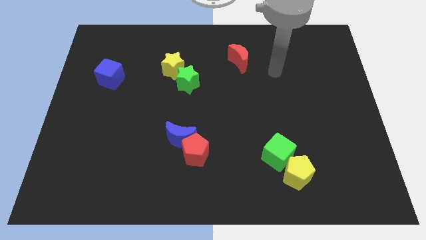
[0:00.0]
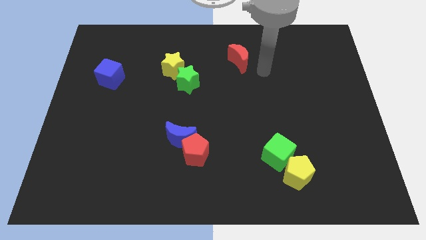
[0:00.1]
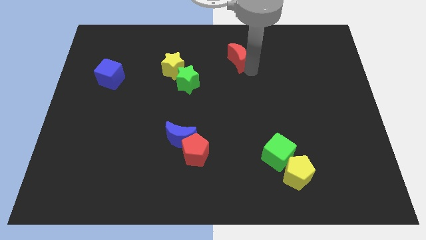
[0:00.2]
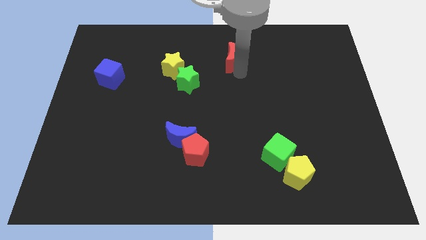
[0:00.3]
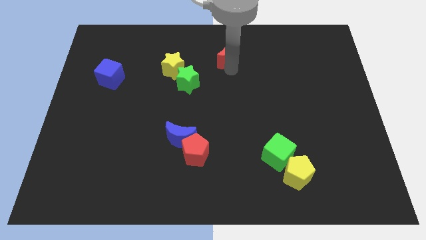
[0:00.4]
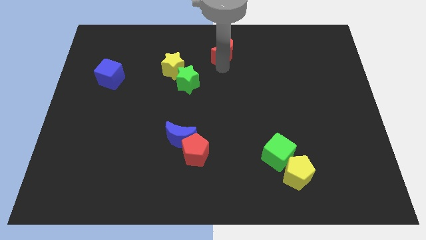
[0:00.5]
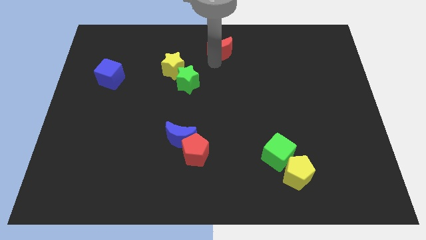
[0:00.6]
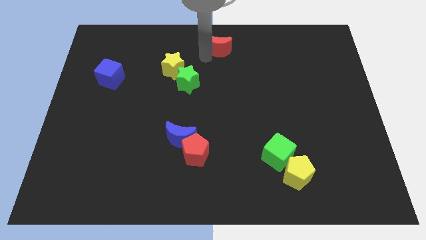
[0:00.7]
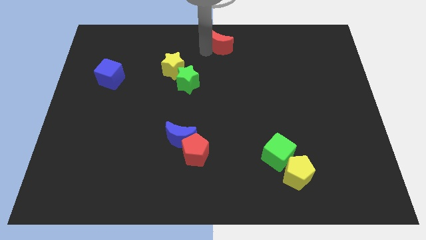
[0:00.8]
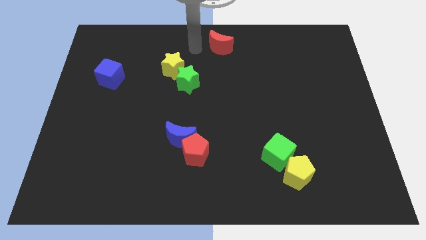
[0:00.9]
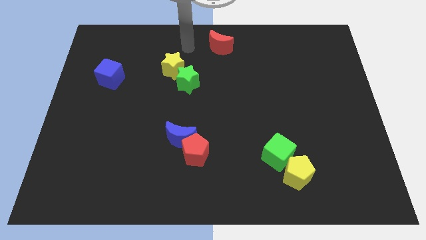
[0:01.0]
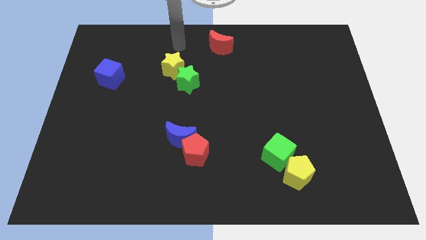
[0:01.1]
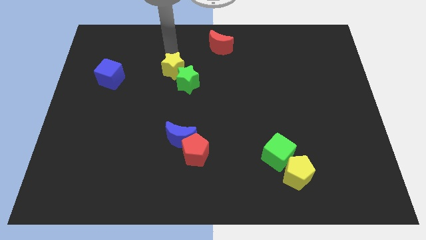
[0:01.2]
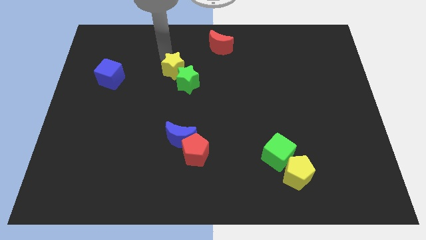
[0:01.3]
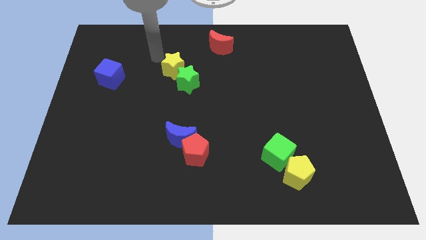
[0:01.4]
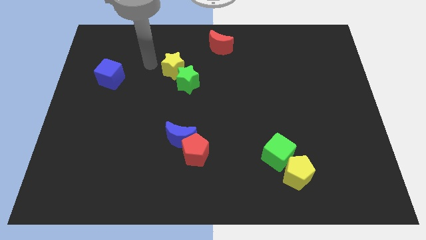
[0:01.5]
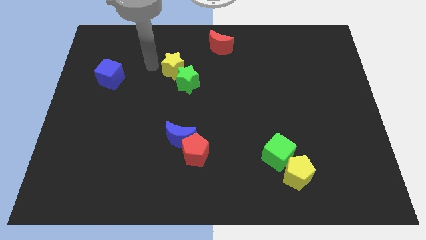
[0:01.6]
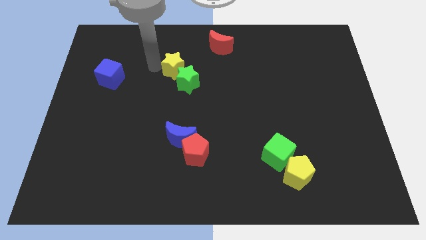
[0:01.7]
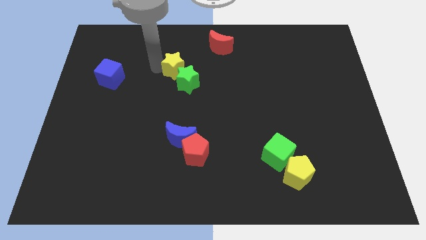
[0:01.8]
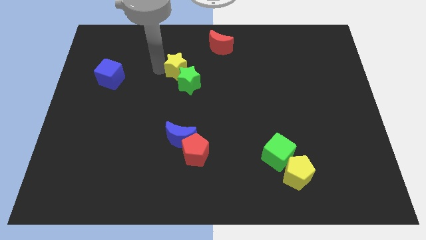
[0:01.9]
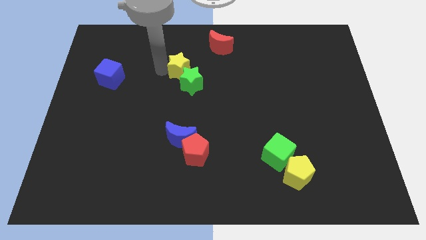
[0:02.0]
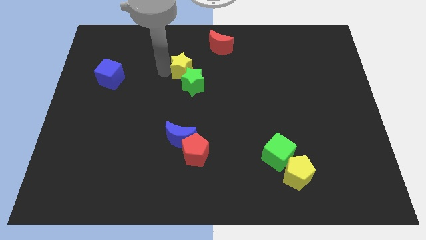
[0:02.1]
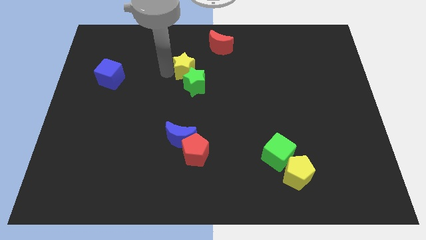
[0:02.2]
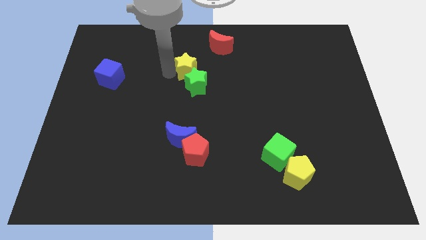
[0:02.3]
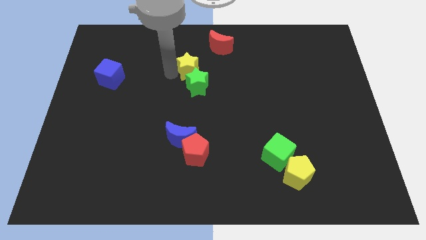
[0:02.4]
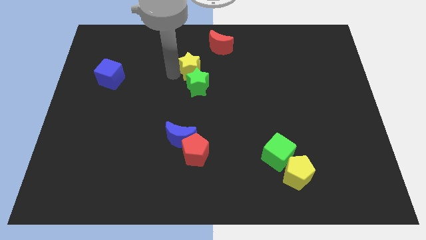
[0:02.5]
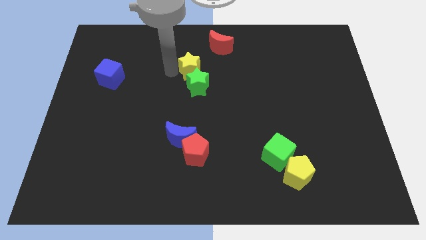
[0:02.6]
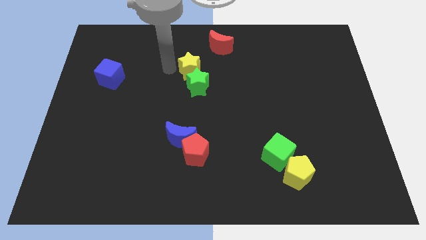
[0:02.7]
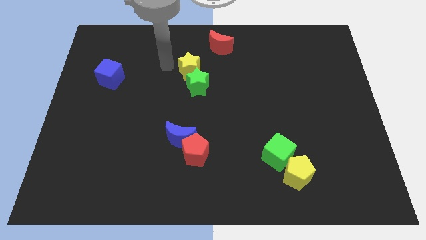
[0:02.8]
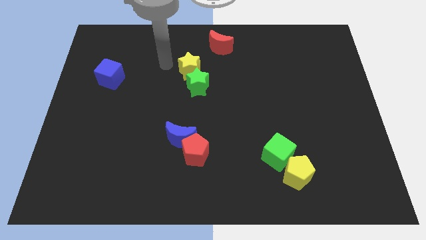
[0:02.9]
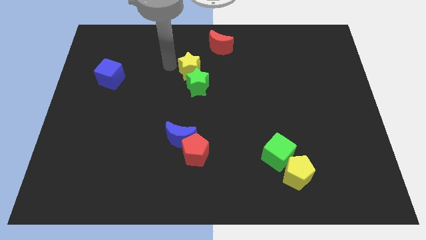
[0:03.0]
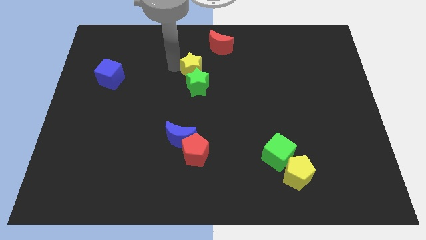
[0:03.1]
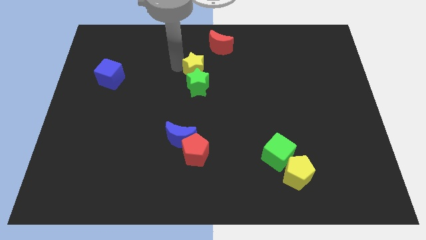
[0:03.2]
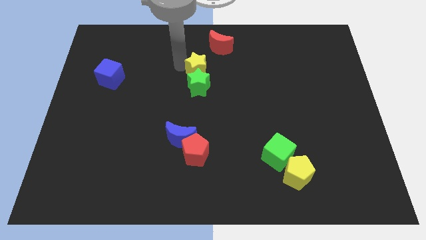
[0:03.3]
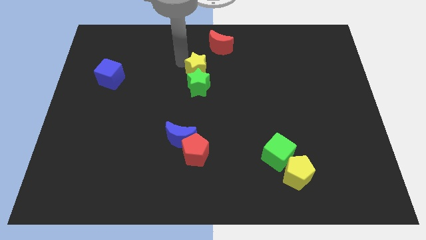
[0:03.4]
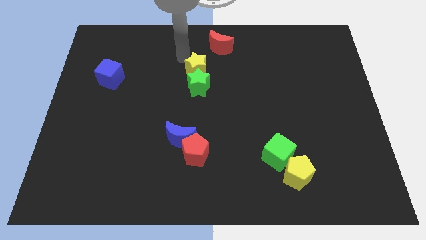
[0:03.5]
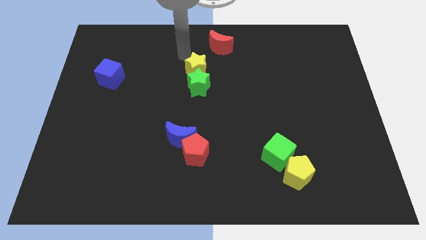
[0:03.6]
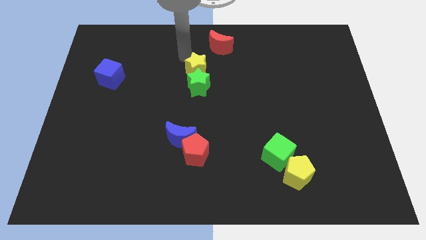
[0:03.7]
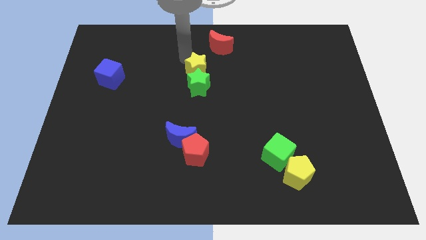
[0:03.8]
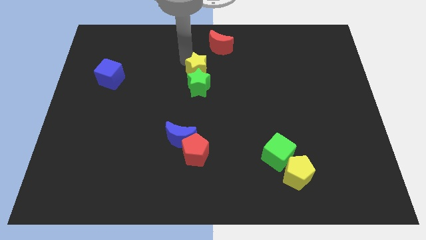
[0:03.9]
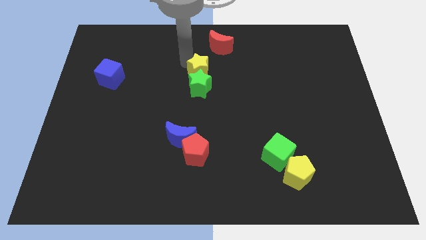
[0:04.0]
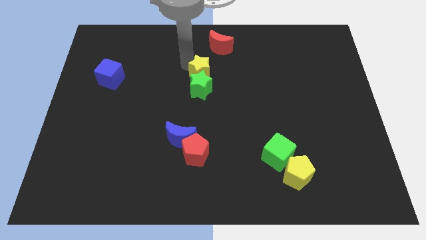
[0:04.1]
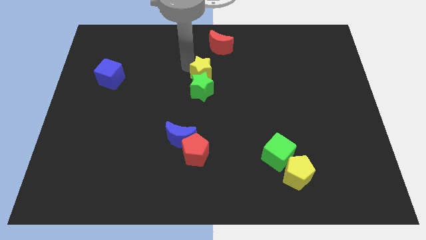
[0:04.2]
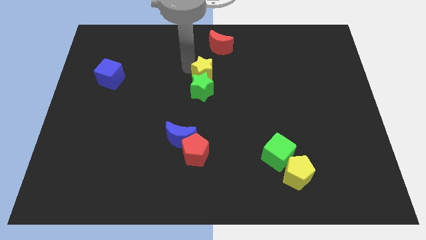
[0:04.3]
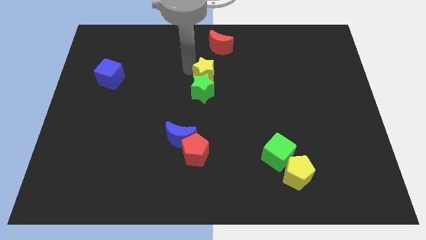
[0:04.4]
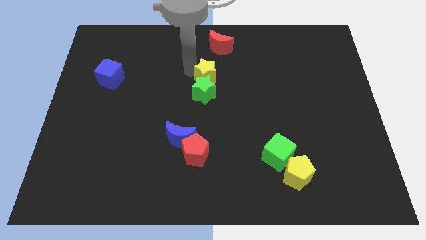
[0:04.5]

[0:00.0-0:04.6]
slide the yellow star a bit downwards and to the right diagonally

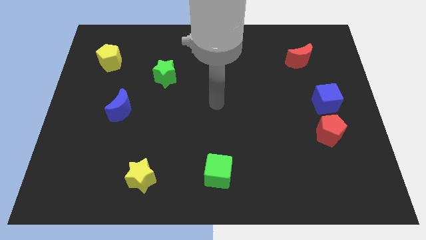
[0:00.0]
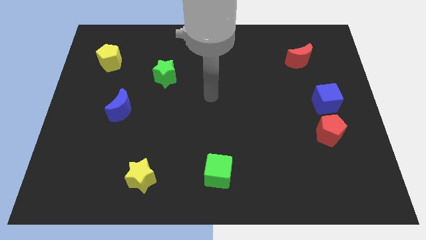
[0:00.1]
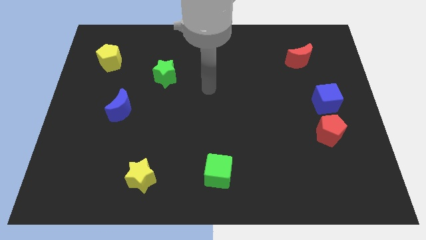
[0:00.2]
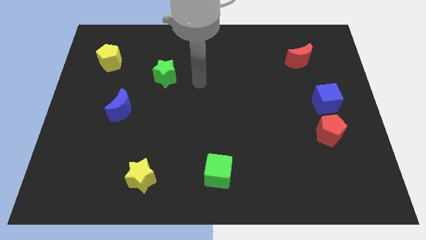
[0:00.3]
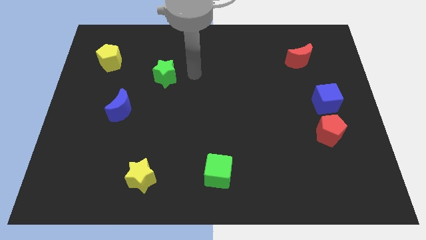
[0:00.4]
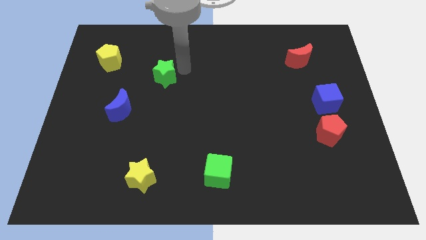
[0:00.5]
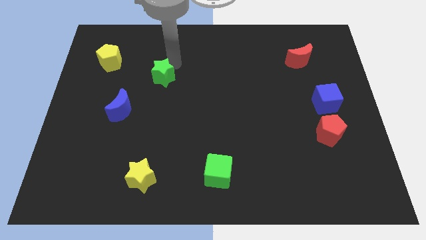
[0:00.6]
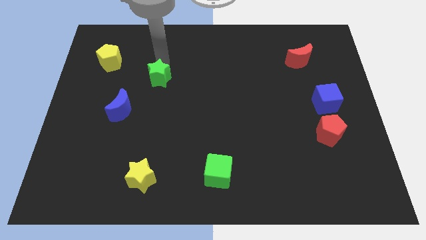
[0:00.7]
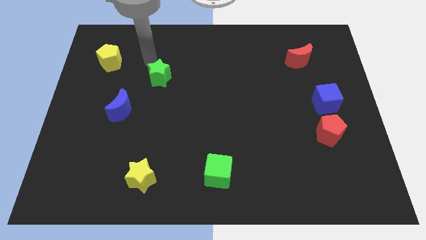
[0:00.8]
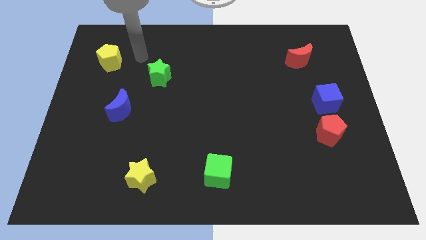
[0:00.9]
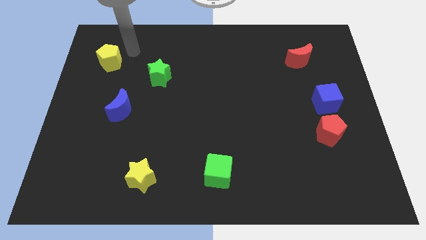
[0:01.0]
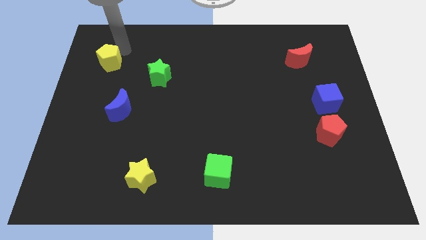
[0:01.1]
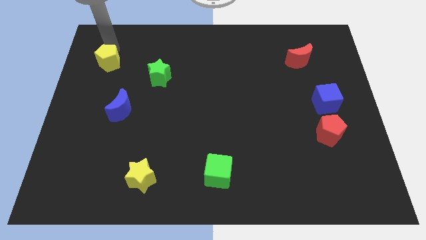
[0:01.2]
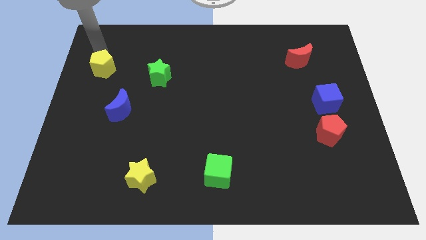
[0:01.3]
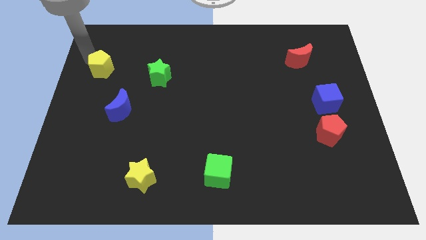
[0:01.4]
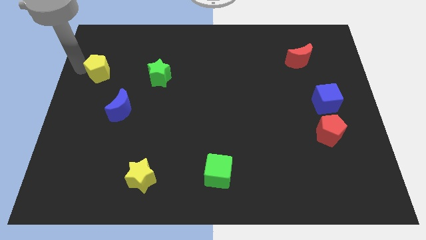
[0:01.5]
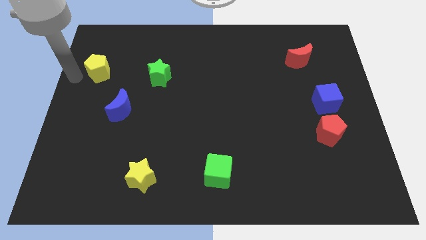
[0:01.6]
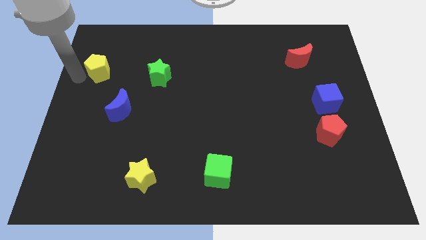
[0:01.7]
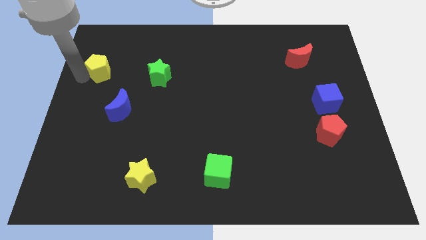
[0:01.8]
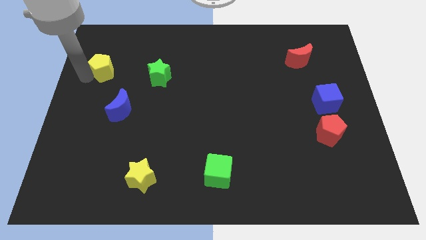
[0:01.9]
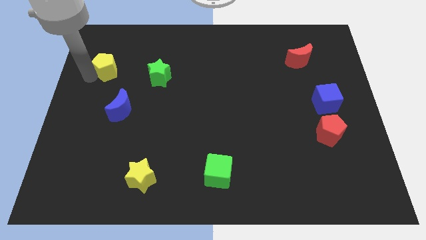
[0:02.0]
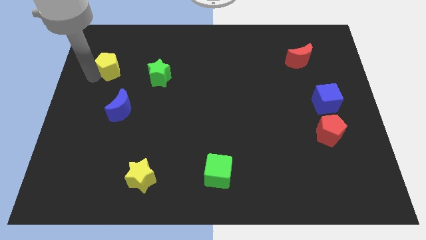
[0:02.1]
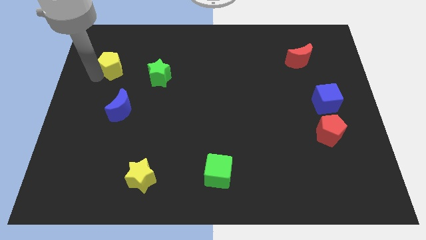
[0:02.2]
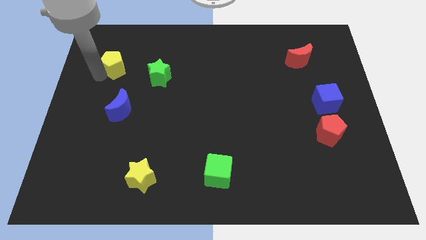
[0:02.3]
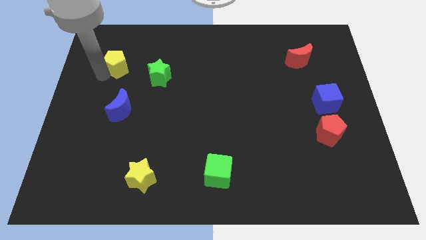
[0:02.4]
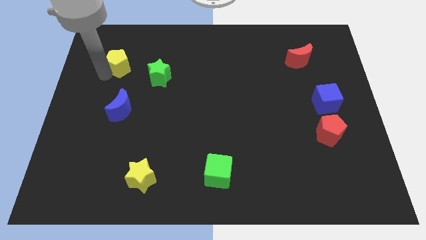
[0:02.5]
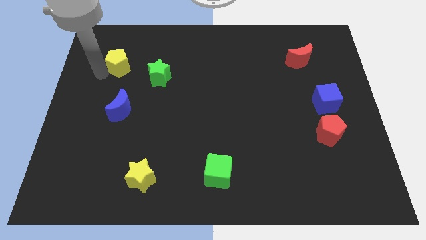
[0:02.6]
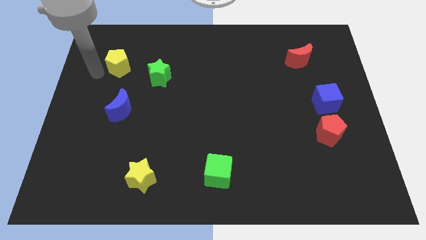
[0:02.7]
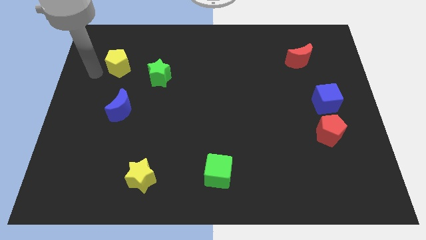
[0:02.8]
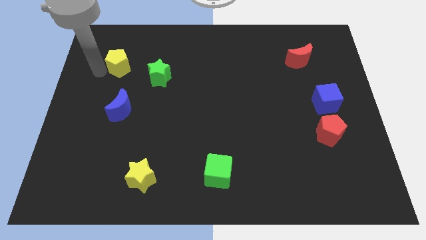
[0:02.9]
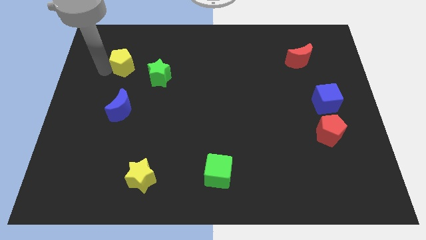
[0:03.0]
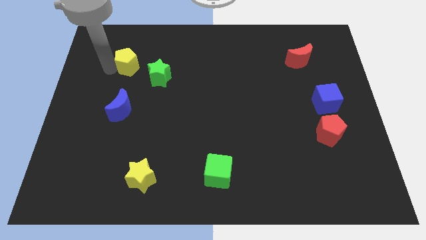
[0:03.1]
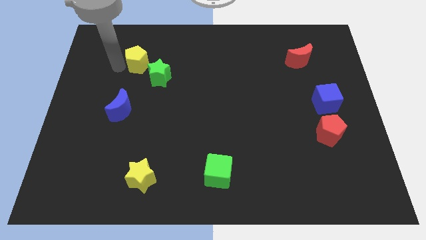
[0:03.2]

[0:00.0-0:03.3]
slide the yellow pentagon slightly to the right

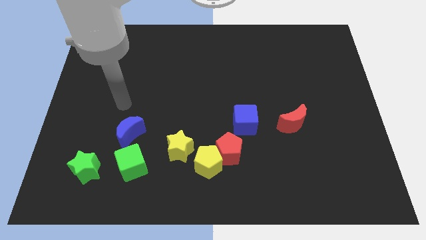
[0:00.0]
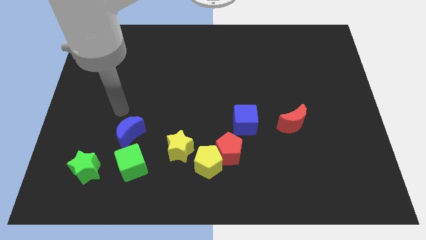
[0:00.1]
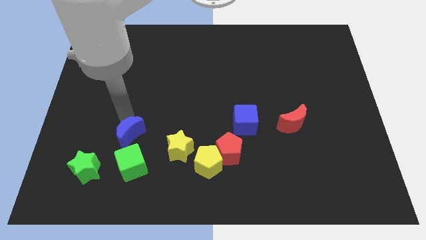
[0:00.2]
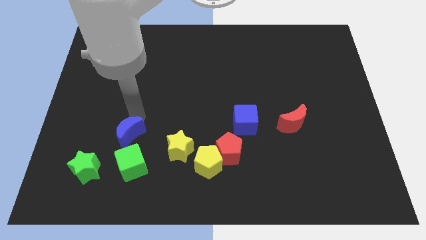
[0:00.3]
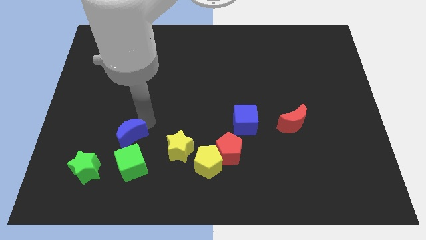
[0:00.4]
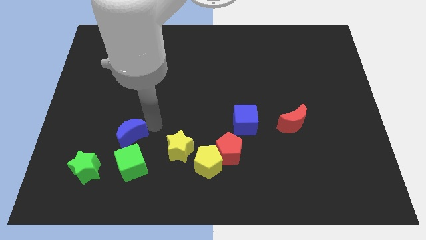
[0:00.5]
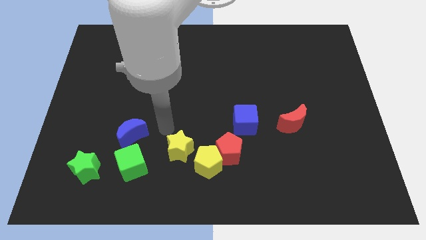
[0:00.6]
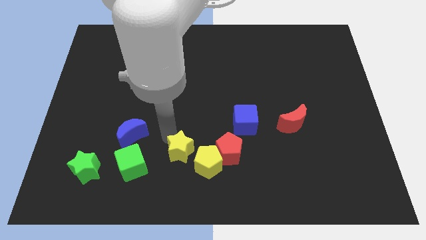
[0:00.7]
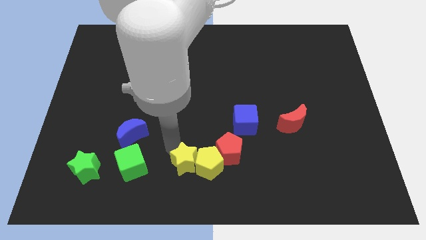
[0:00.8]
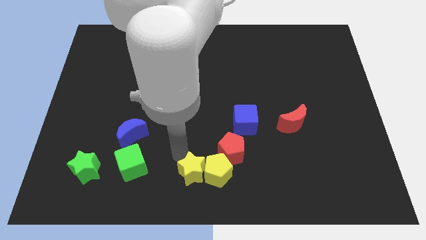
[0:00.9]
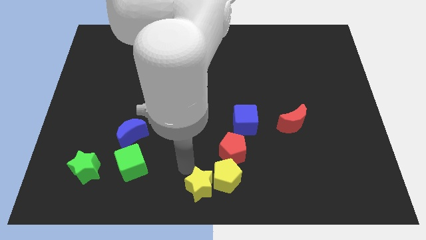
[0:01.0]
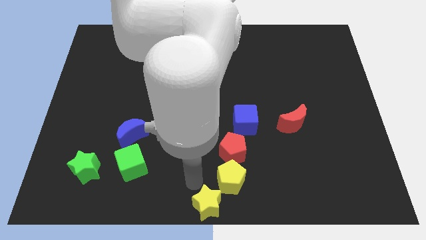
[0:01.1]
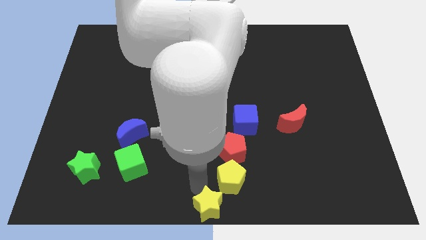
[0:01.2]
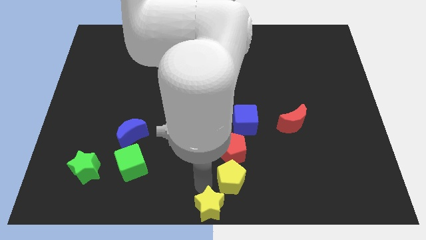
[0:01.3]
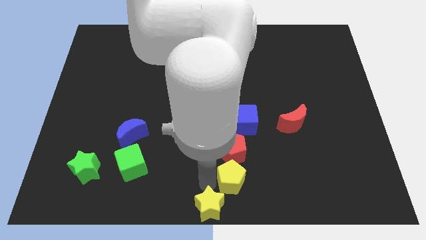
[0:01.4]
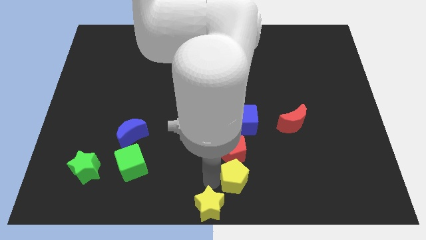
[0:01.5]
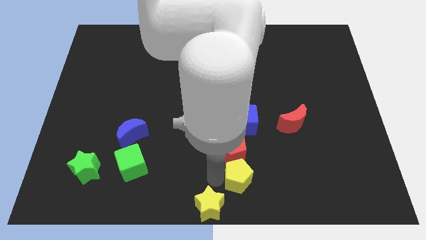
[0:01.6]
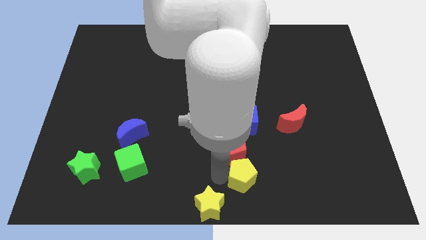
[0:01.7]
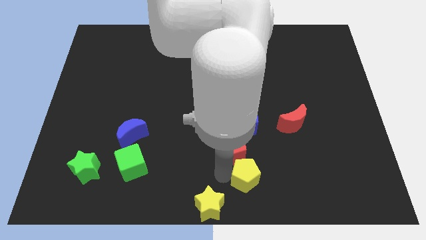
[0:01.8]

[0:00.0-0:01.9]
slightly push the yellow pentagon right
